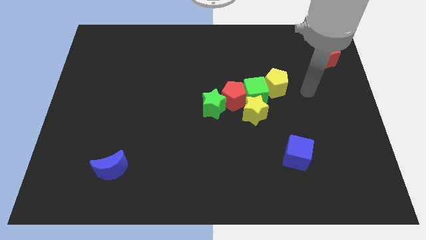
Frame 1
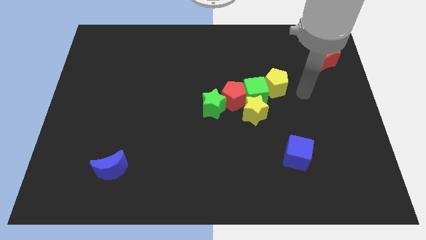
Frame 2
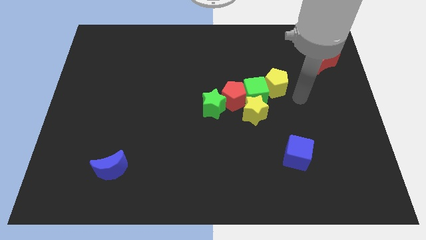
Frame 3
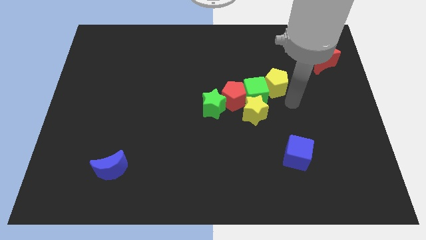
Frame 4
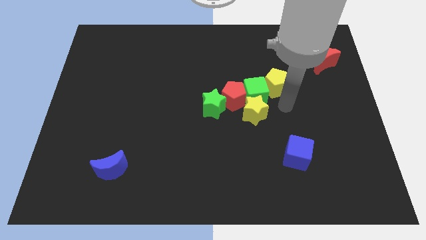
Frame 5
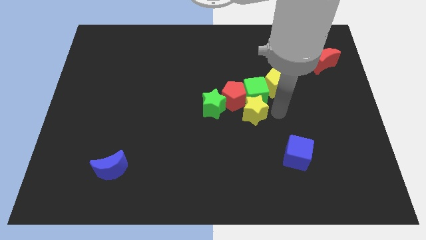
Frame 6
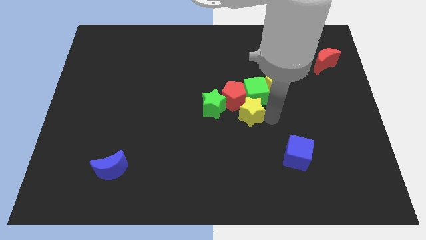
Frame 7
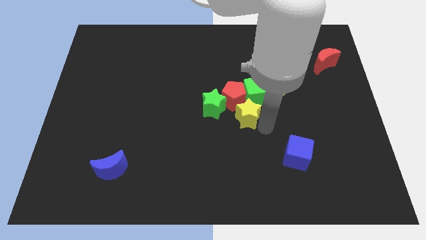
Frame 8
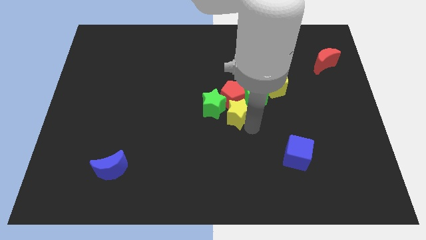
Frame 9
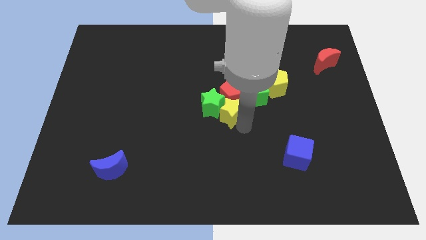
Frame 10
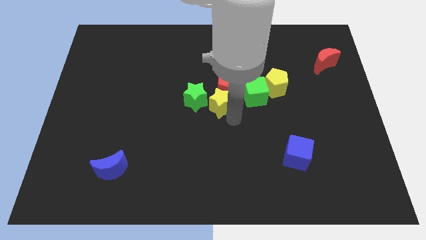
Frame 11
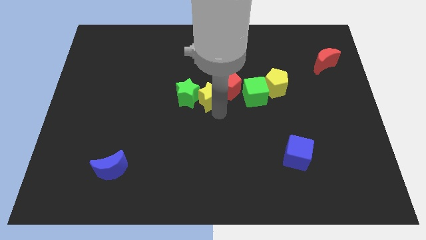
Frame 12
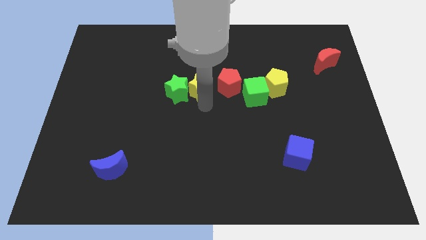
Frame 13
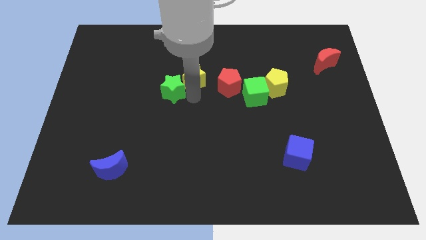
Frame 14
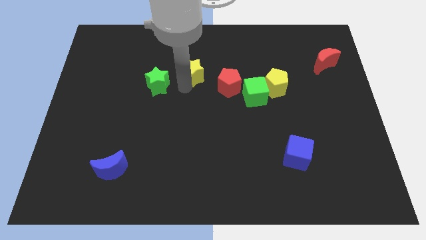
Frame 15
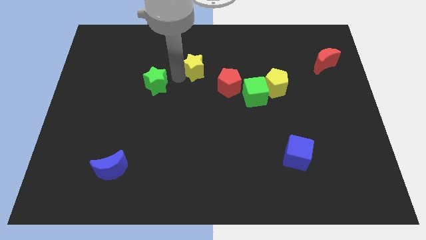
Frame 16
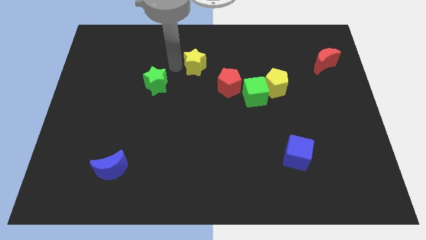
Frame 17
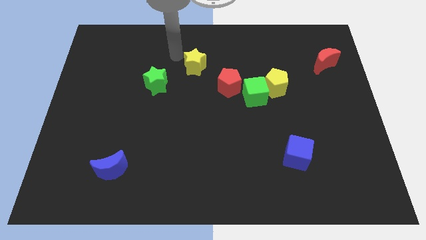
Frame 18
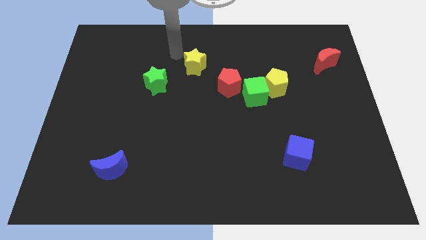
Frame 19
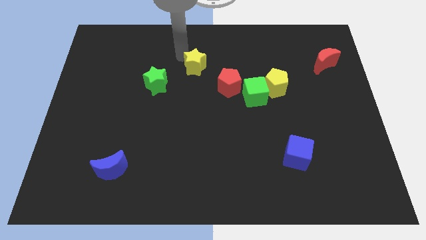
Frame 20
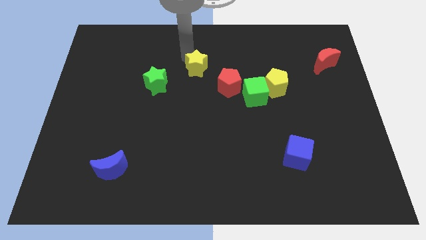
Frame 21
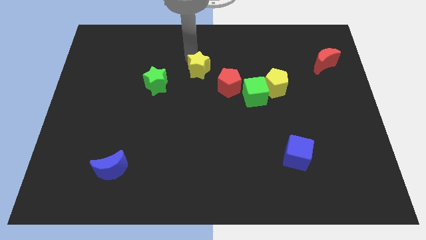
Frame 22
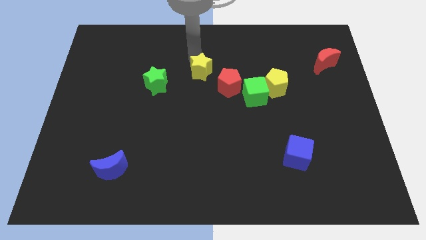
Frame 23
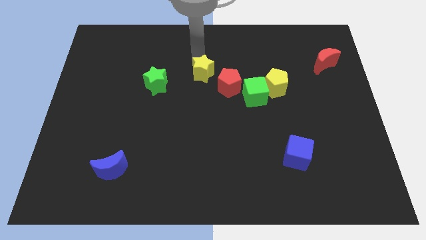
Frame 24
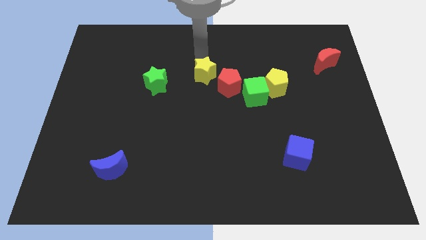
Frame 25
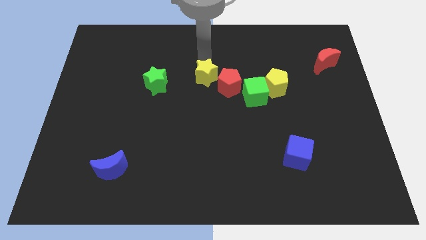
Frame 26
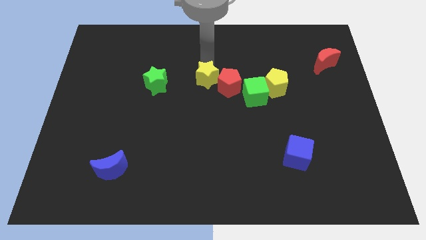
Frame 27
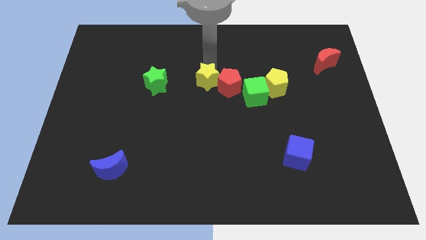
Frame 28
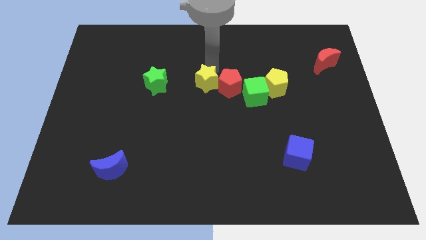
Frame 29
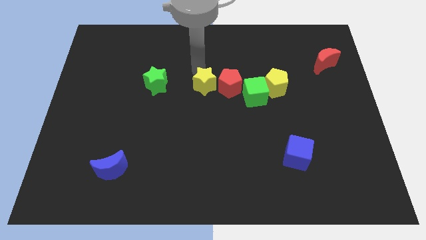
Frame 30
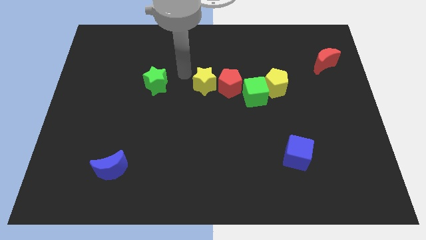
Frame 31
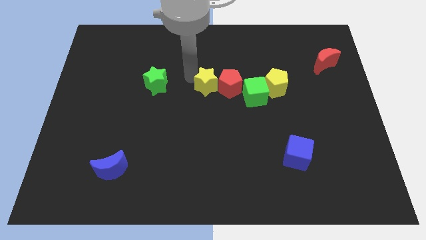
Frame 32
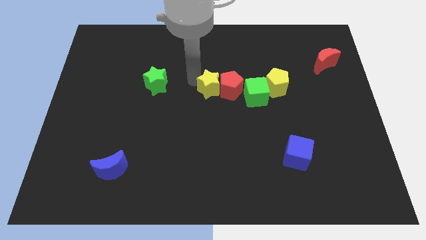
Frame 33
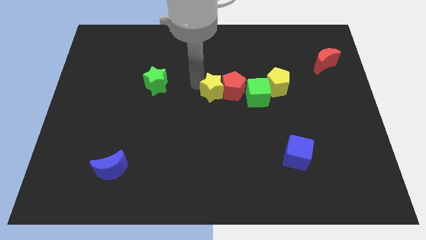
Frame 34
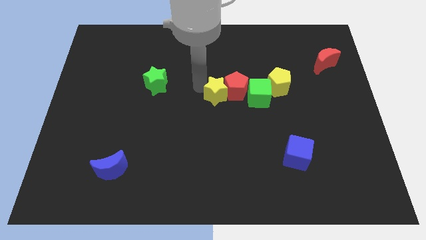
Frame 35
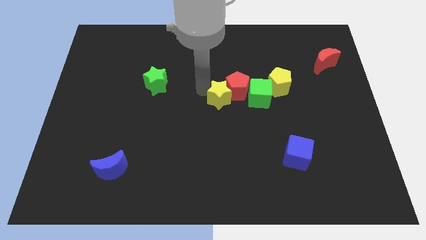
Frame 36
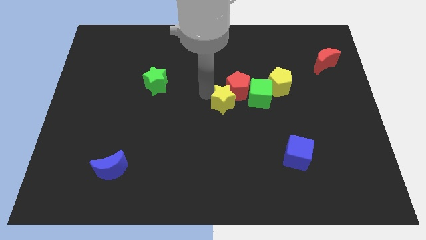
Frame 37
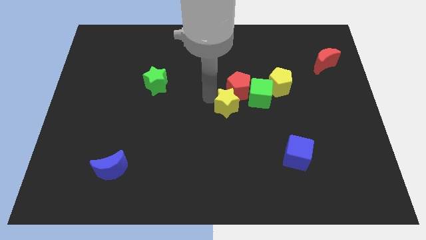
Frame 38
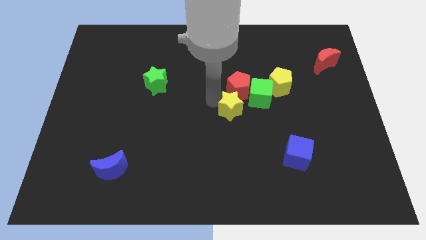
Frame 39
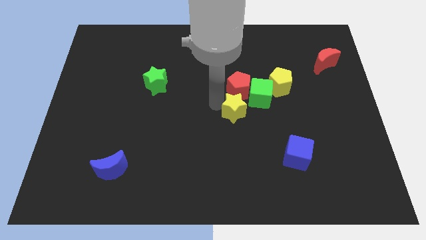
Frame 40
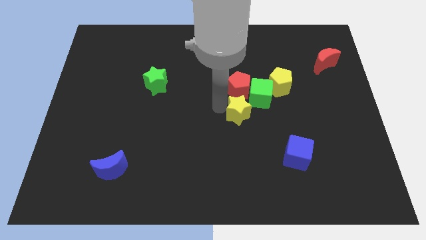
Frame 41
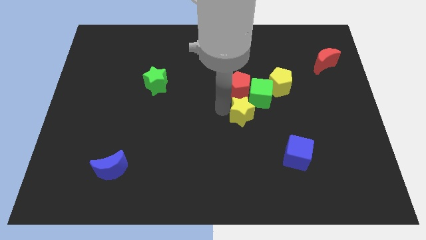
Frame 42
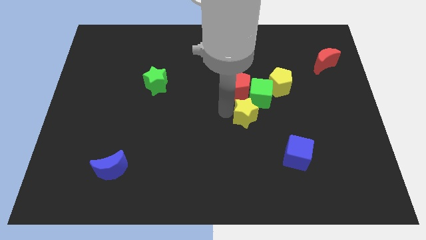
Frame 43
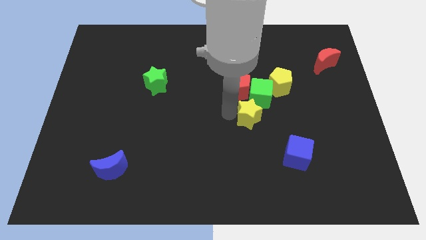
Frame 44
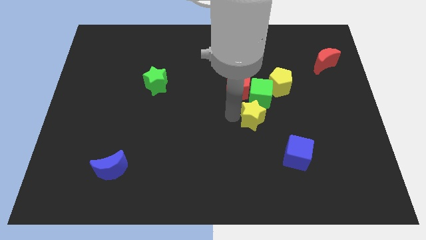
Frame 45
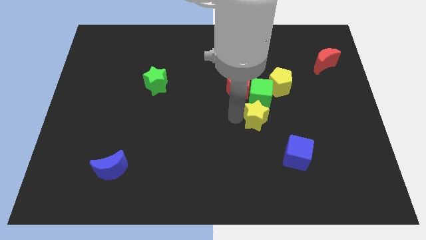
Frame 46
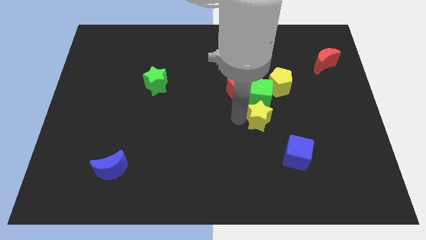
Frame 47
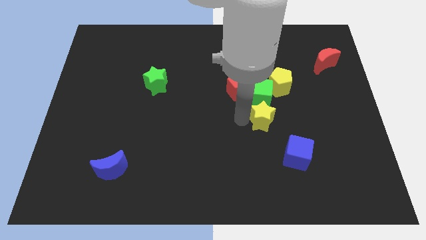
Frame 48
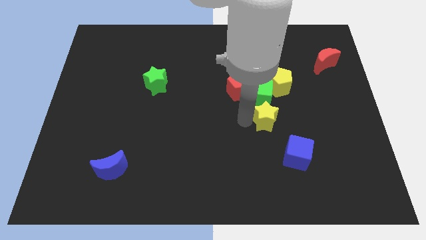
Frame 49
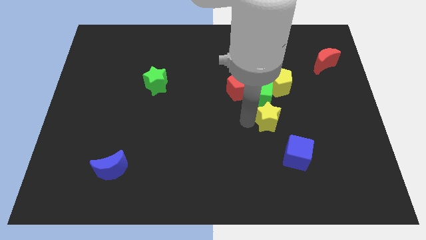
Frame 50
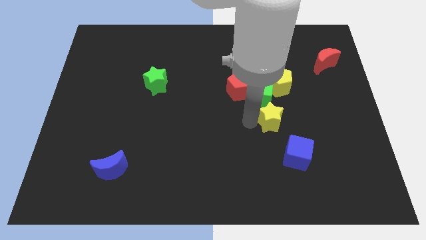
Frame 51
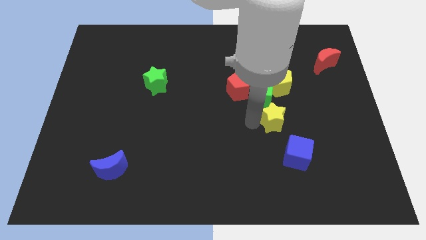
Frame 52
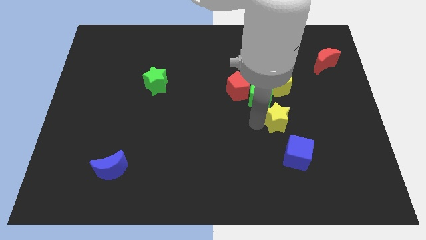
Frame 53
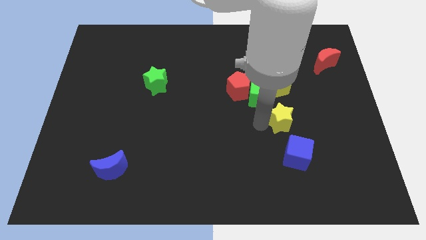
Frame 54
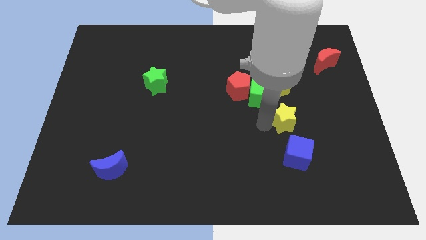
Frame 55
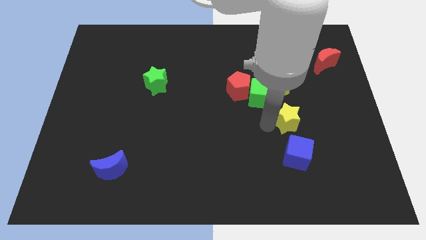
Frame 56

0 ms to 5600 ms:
slide the yellow star to the right slightly

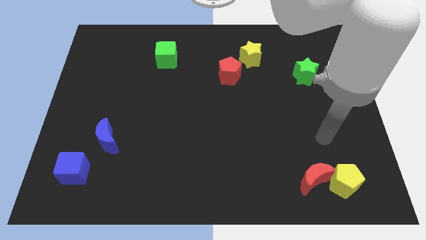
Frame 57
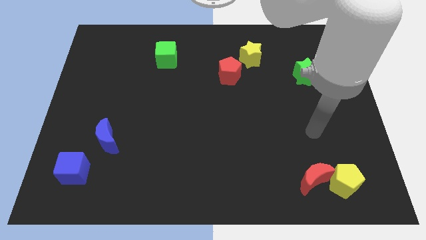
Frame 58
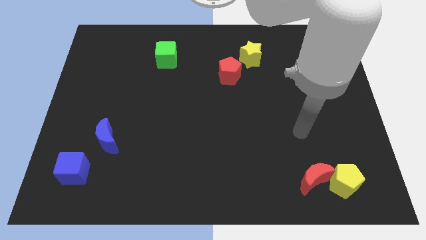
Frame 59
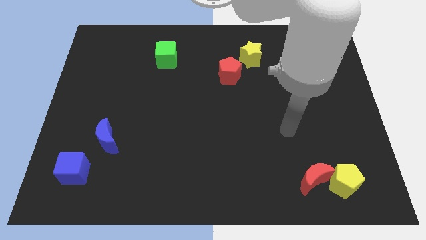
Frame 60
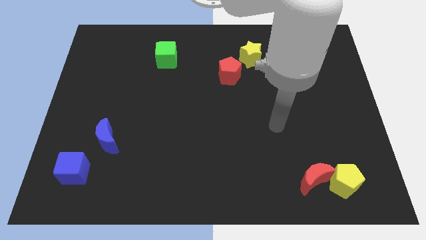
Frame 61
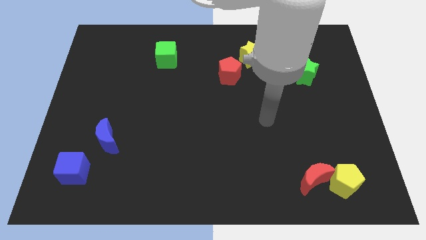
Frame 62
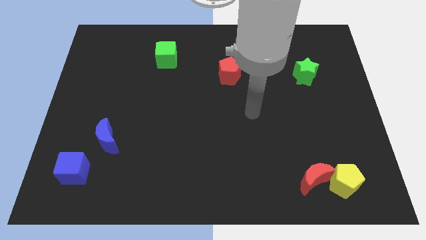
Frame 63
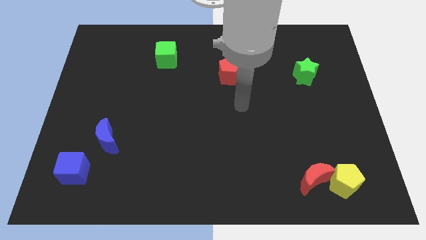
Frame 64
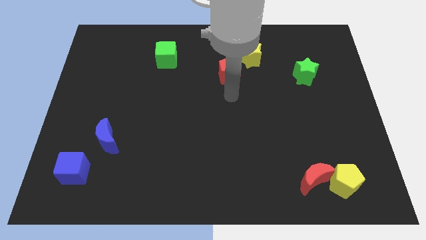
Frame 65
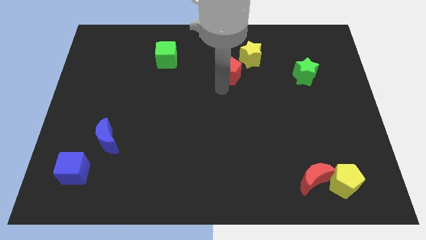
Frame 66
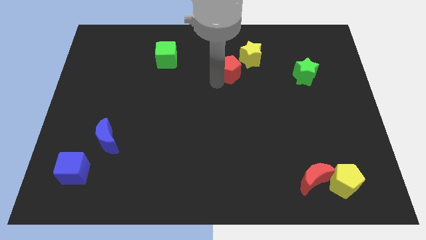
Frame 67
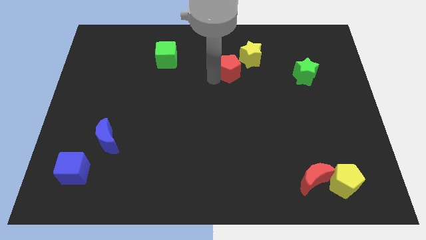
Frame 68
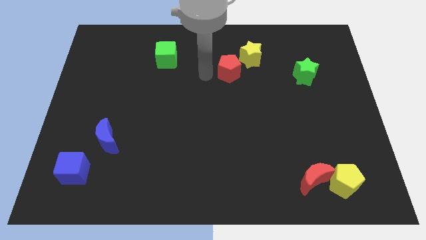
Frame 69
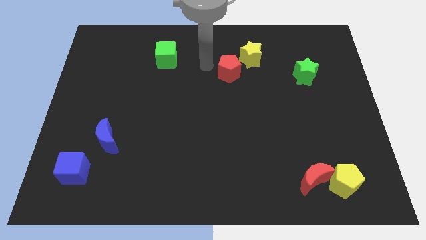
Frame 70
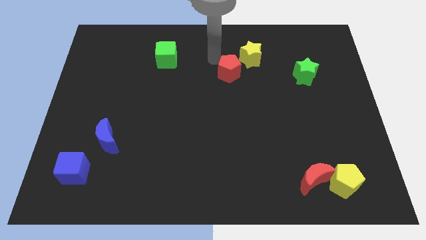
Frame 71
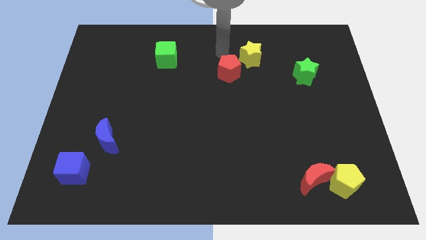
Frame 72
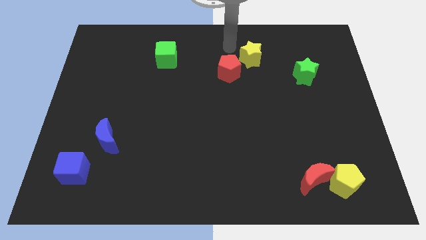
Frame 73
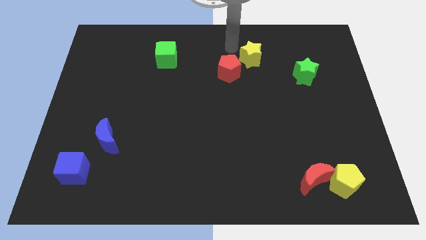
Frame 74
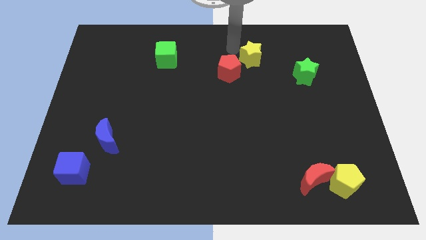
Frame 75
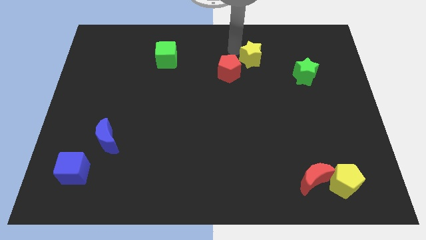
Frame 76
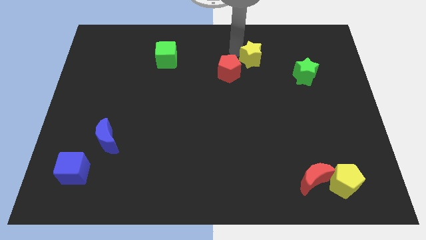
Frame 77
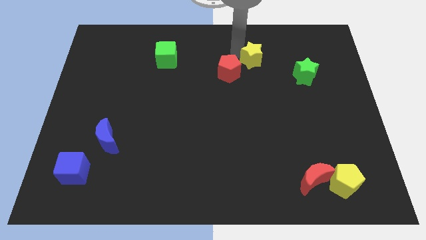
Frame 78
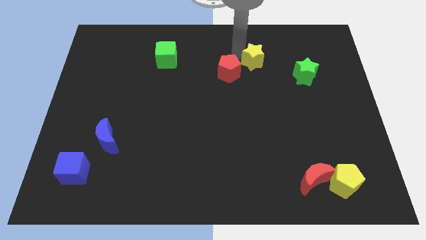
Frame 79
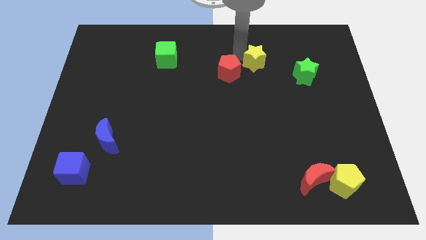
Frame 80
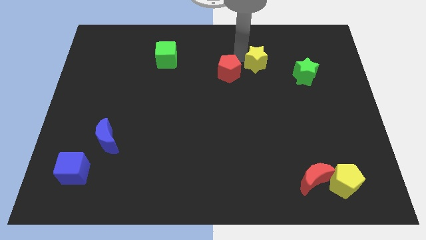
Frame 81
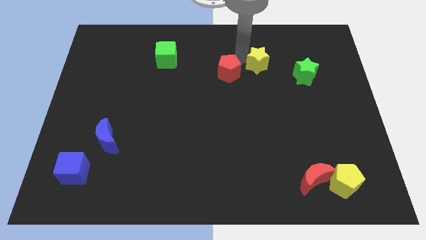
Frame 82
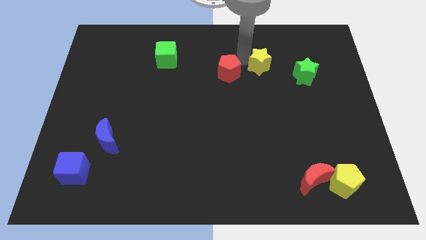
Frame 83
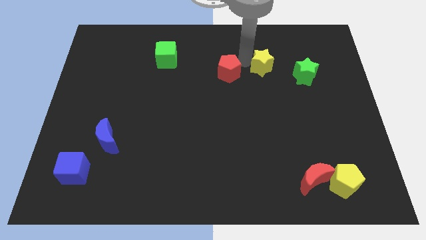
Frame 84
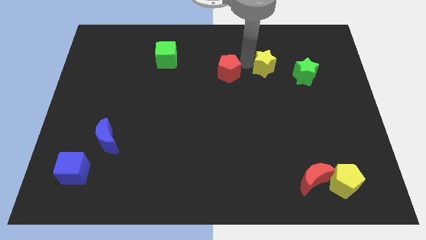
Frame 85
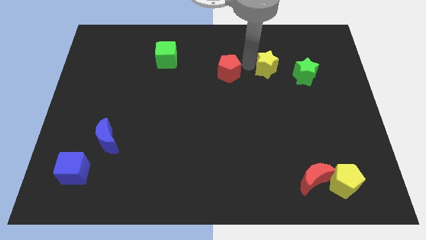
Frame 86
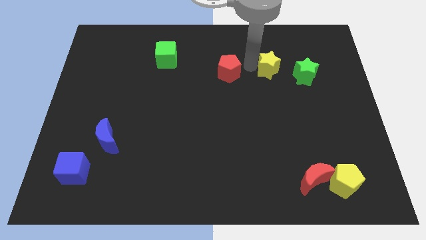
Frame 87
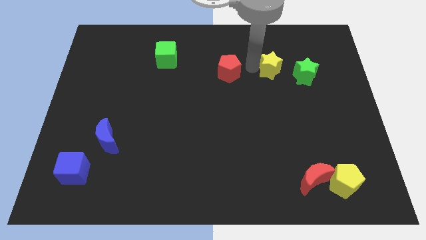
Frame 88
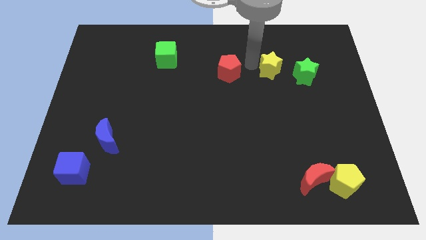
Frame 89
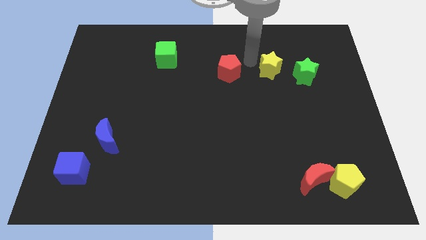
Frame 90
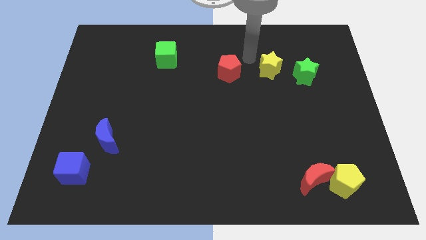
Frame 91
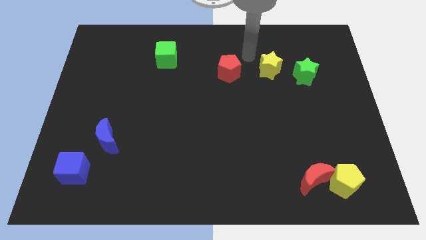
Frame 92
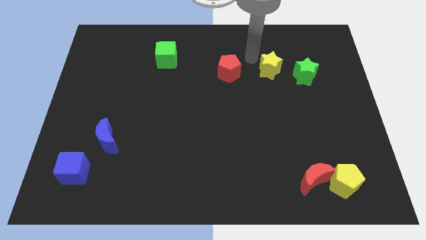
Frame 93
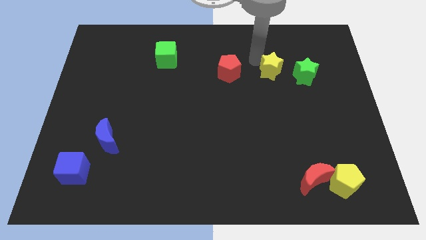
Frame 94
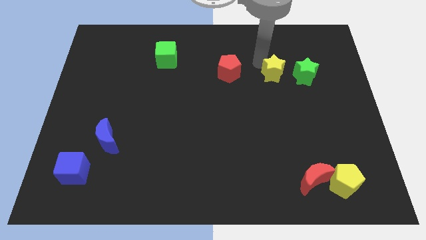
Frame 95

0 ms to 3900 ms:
slightly move the yellow star down and then to the right
